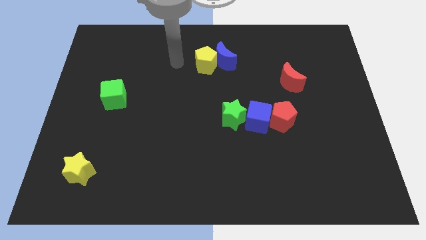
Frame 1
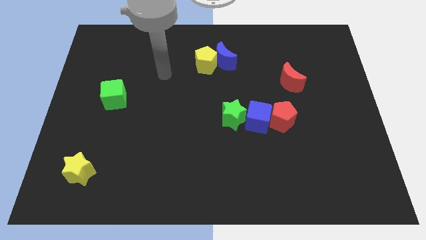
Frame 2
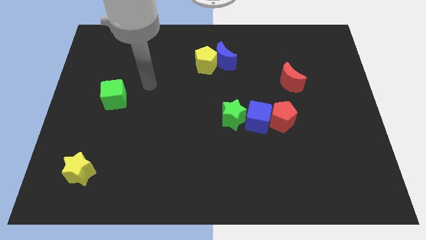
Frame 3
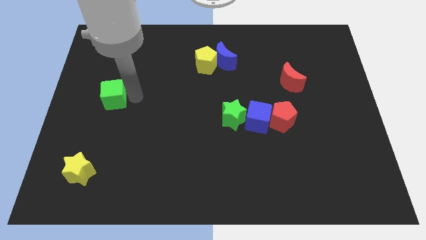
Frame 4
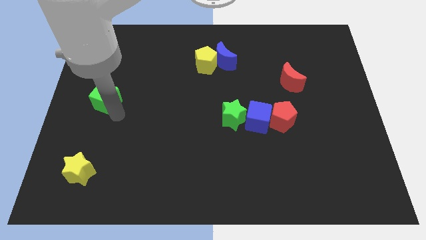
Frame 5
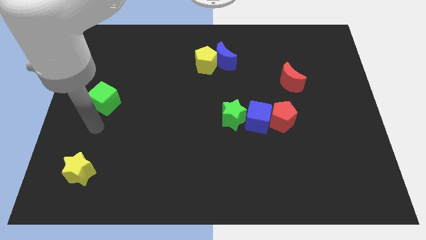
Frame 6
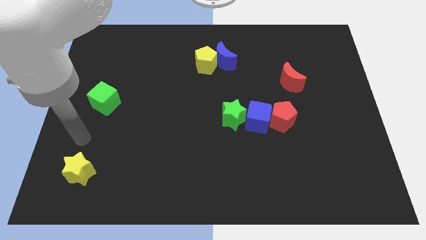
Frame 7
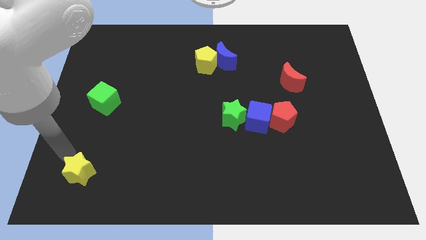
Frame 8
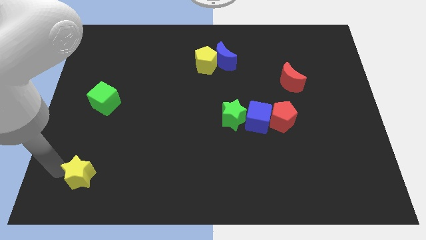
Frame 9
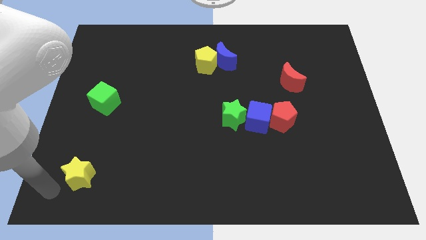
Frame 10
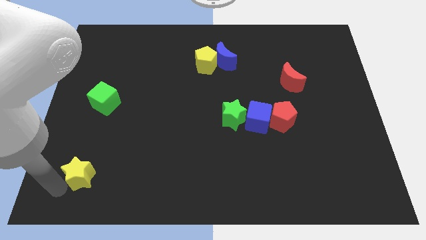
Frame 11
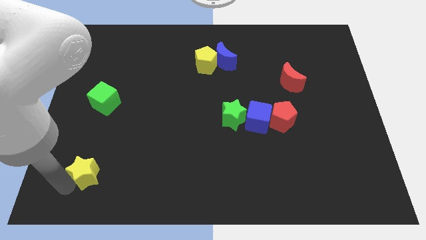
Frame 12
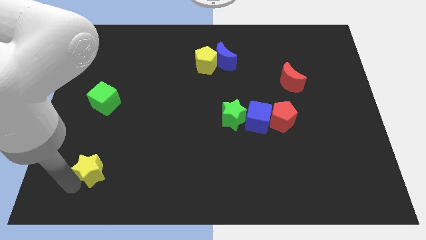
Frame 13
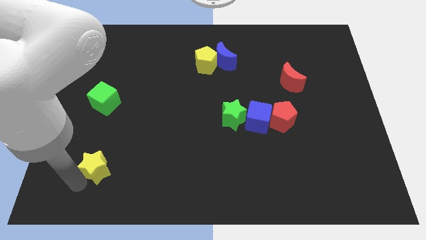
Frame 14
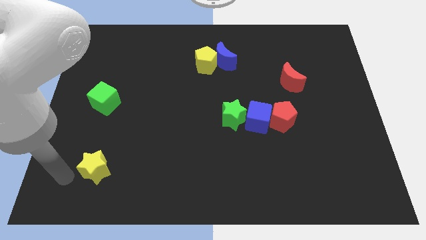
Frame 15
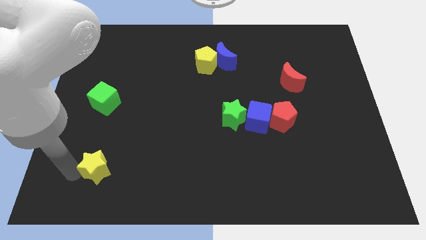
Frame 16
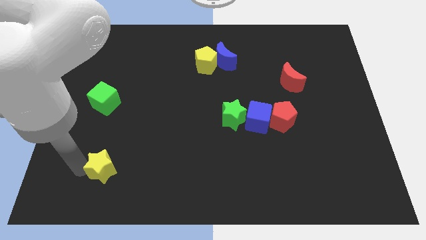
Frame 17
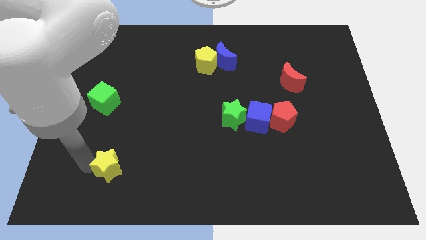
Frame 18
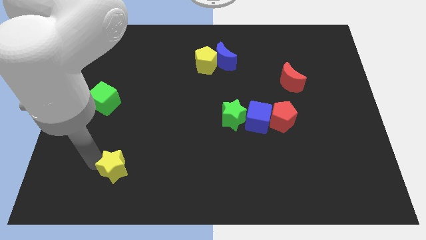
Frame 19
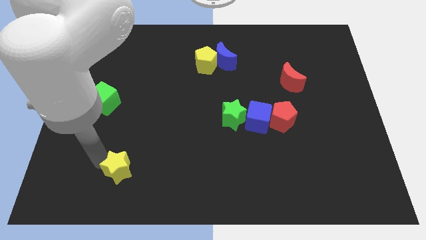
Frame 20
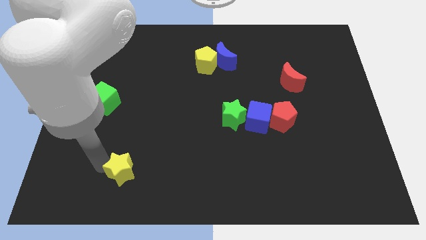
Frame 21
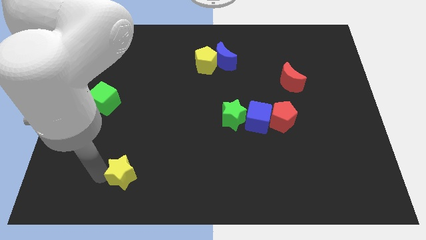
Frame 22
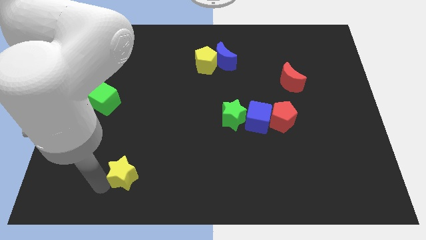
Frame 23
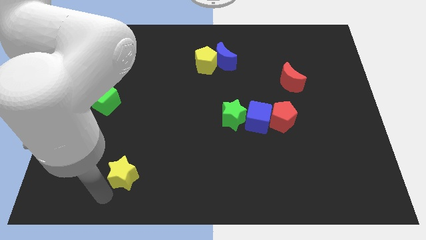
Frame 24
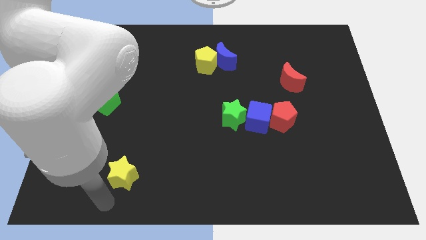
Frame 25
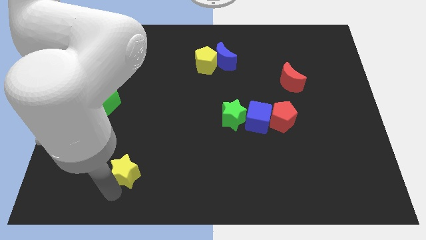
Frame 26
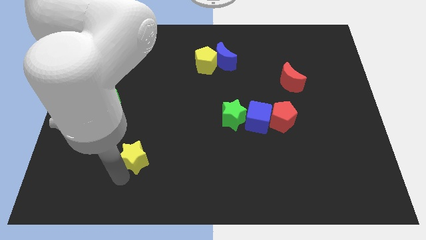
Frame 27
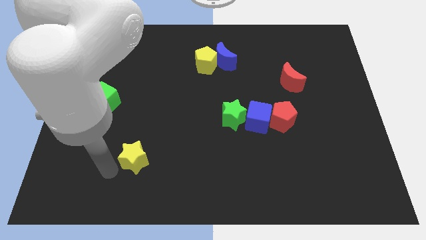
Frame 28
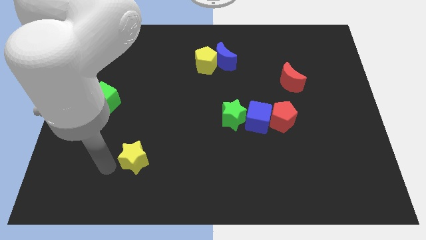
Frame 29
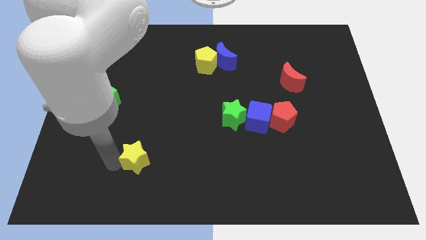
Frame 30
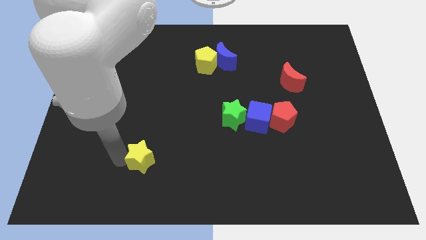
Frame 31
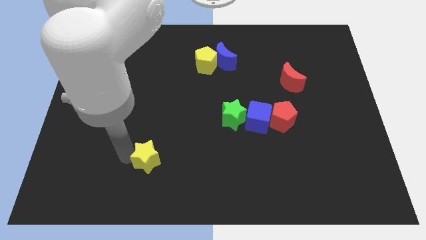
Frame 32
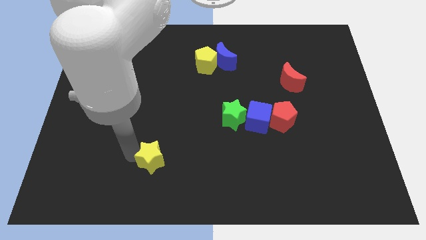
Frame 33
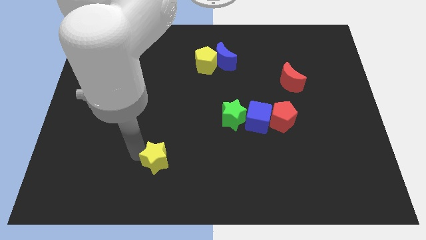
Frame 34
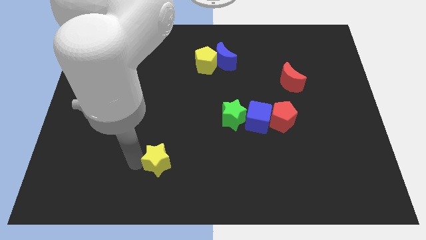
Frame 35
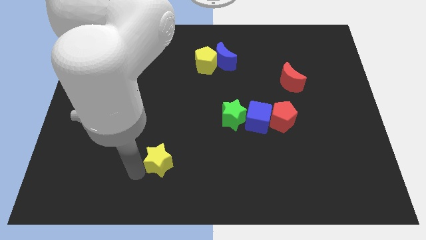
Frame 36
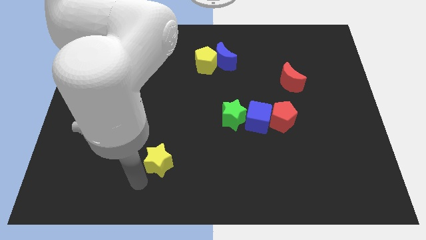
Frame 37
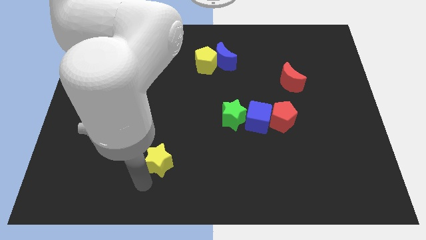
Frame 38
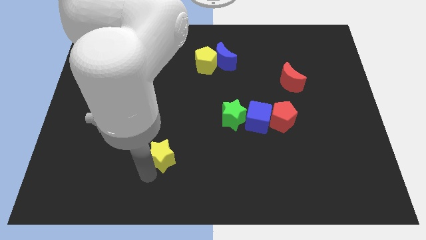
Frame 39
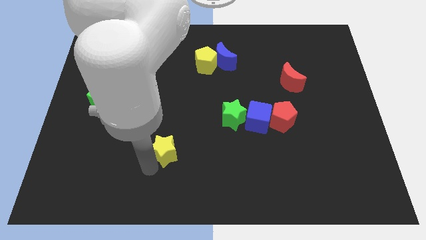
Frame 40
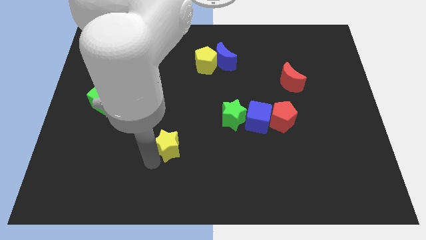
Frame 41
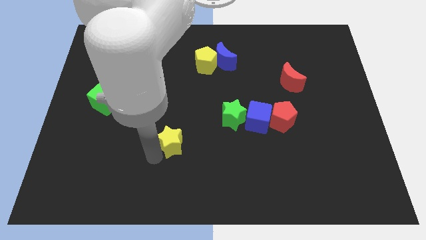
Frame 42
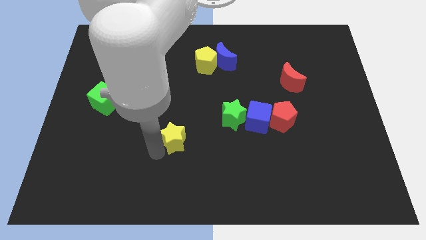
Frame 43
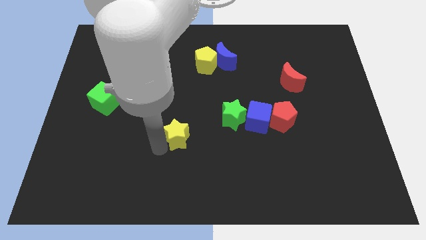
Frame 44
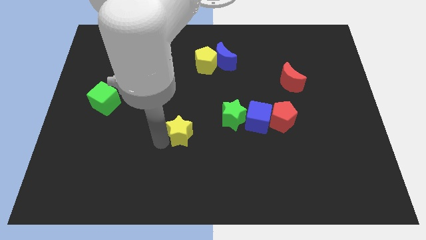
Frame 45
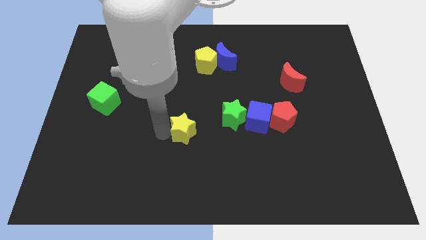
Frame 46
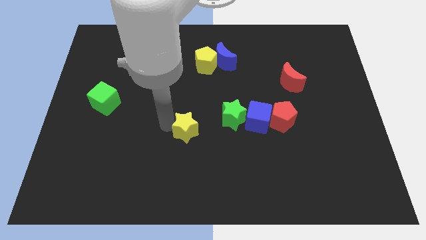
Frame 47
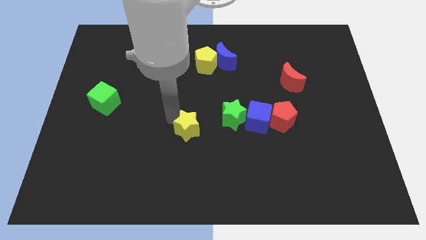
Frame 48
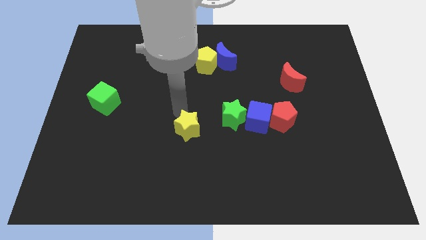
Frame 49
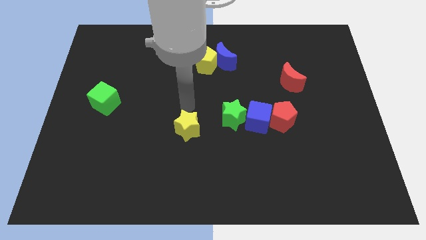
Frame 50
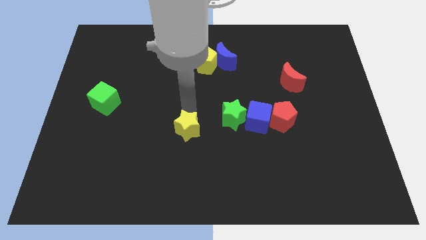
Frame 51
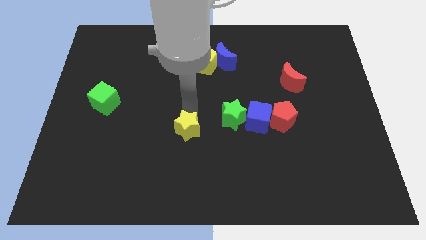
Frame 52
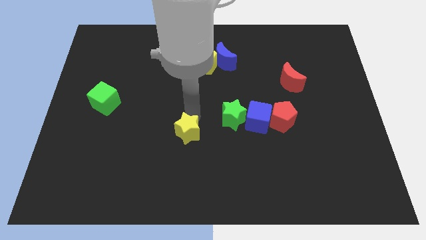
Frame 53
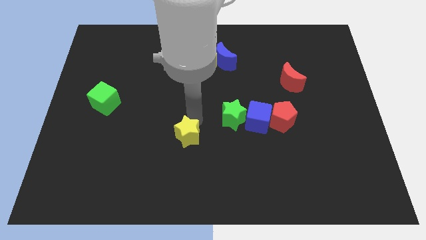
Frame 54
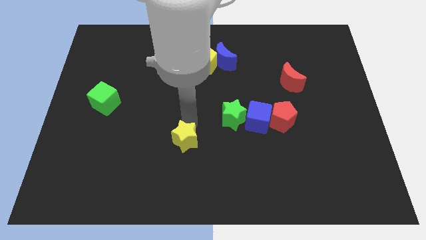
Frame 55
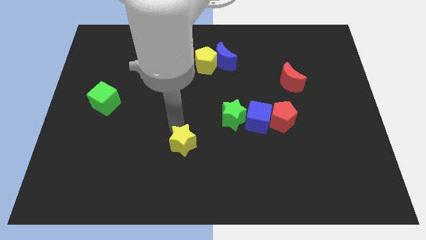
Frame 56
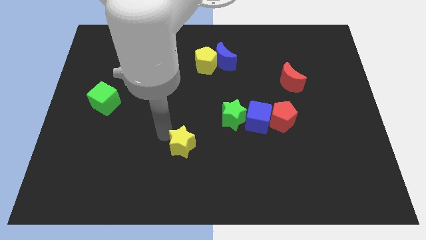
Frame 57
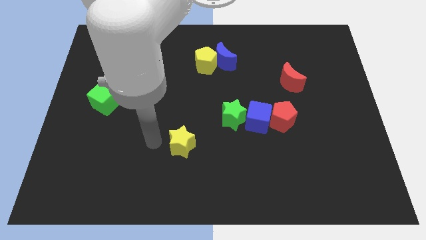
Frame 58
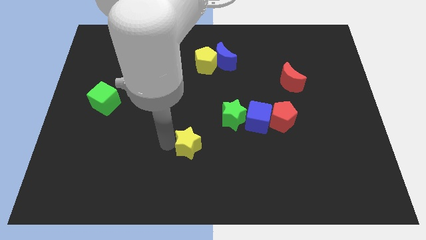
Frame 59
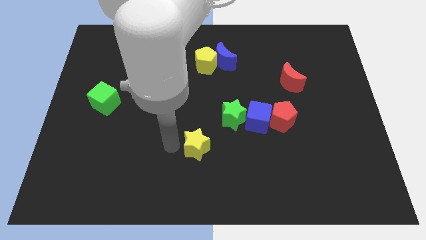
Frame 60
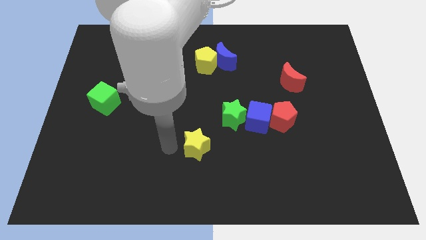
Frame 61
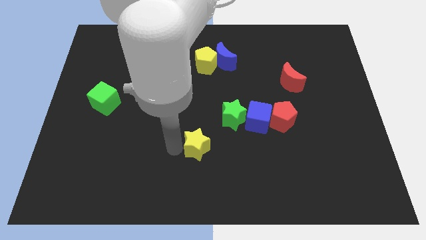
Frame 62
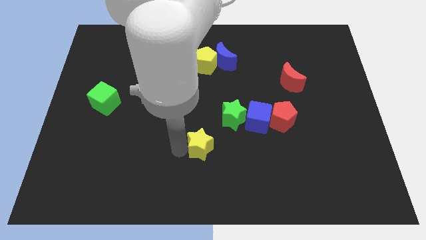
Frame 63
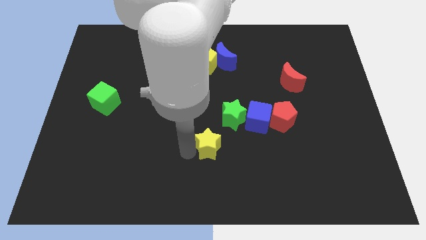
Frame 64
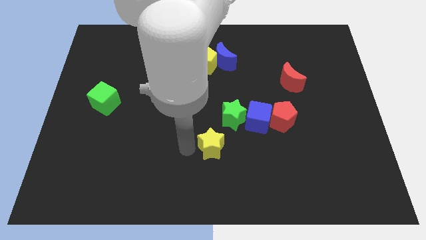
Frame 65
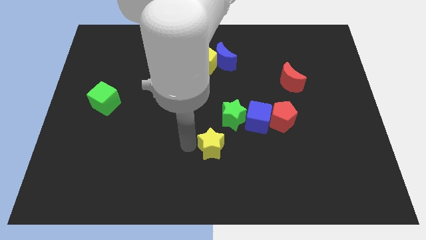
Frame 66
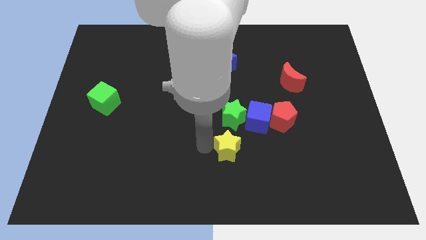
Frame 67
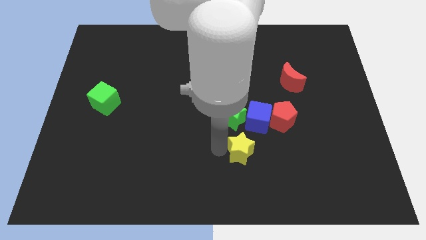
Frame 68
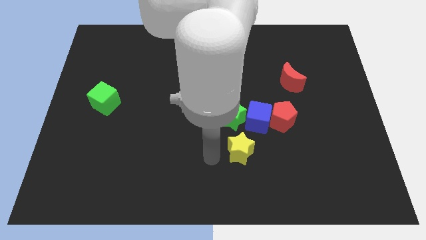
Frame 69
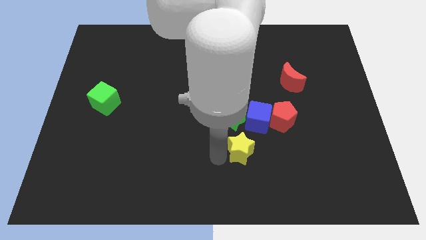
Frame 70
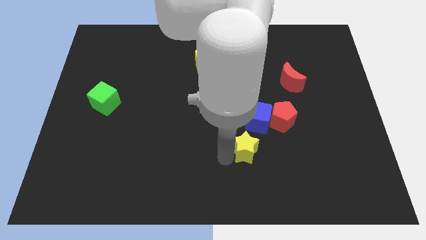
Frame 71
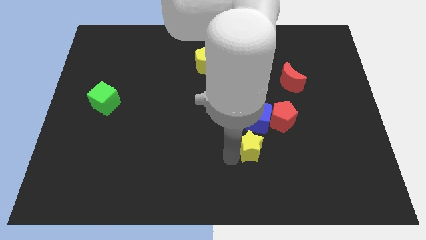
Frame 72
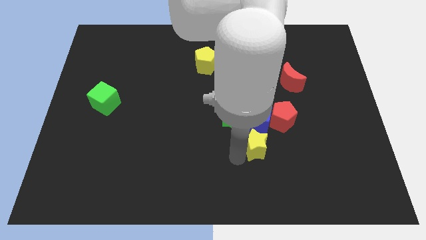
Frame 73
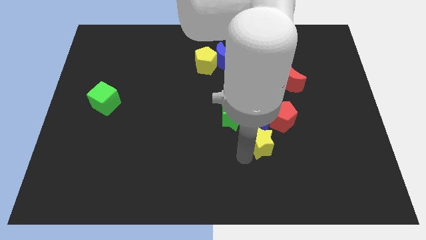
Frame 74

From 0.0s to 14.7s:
move the yellow star diagonally down and to the right of the blue cube
